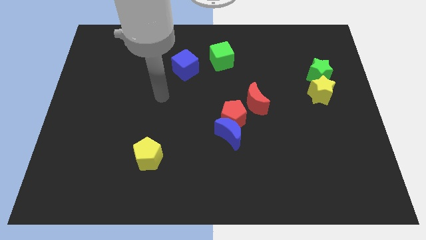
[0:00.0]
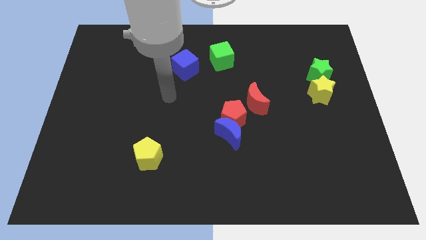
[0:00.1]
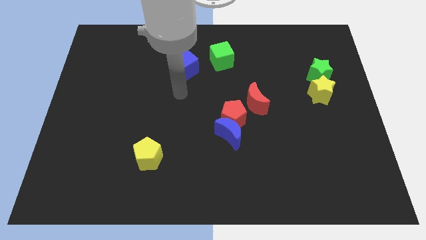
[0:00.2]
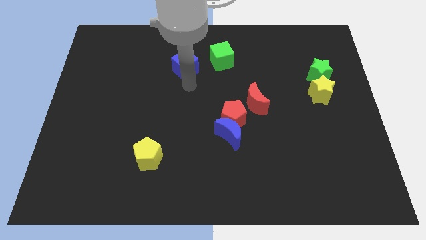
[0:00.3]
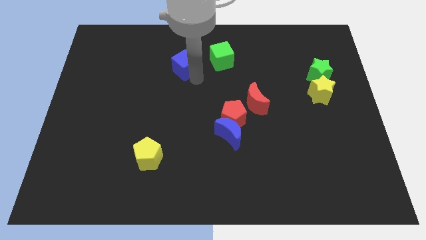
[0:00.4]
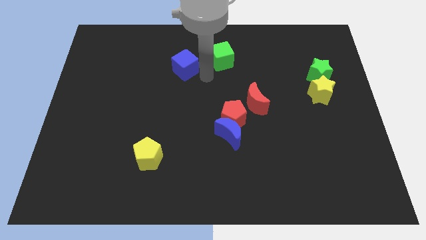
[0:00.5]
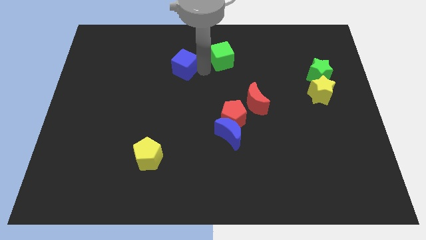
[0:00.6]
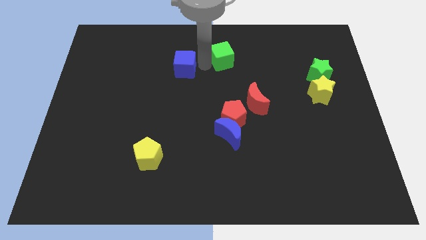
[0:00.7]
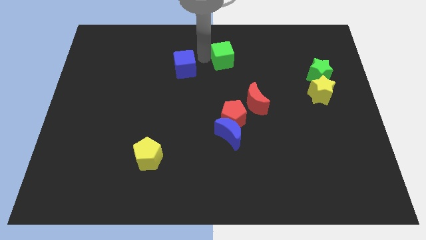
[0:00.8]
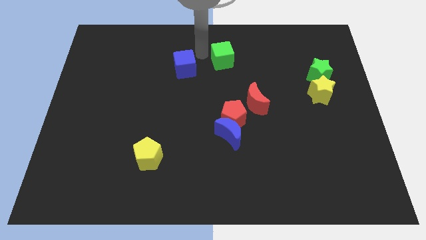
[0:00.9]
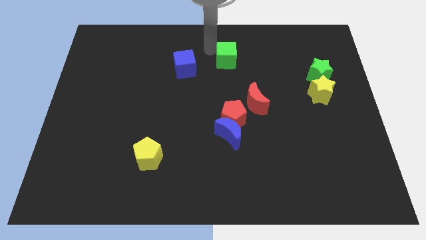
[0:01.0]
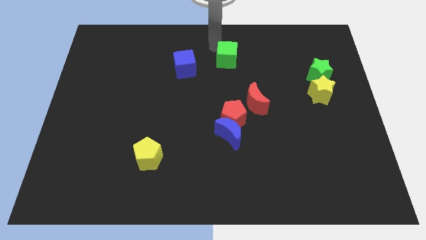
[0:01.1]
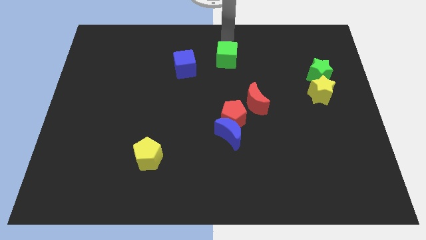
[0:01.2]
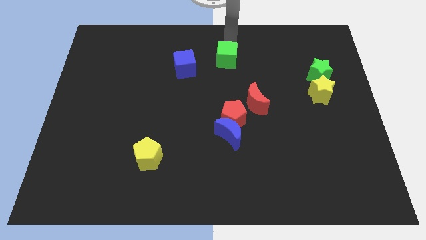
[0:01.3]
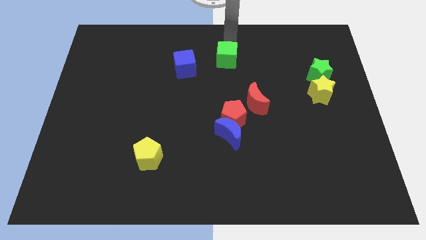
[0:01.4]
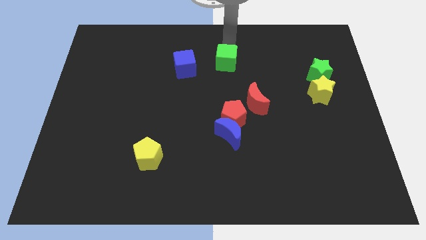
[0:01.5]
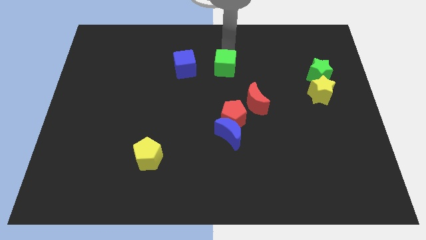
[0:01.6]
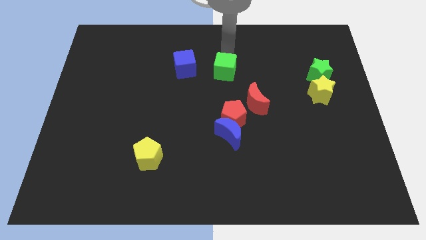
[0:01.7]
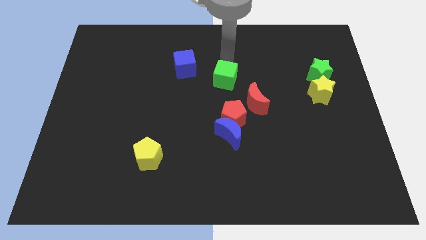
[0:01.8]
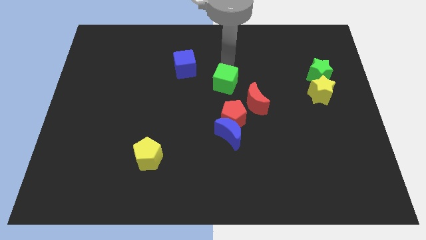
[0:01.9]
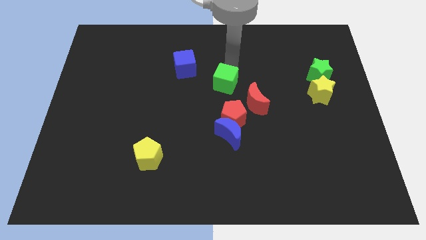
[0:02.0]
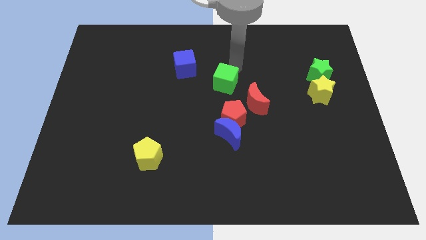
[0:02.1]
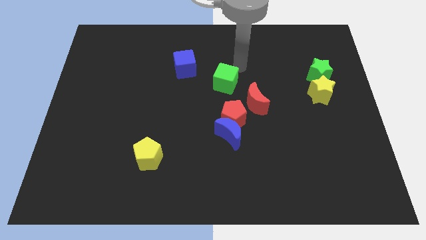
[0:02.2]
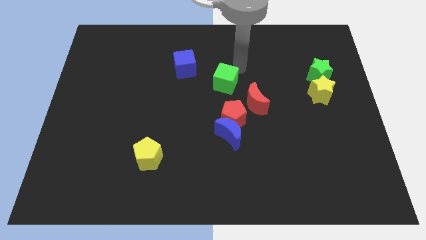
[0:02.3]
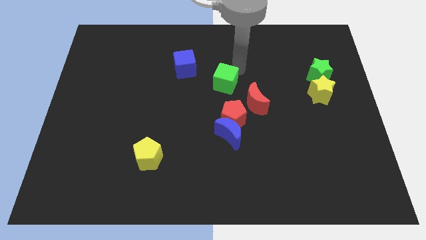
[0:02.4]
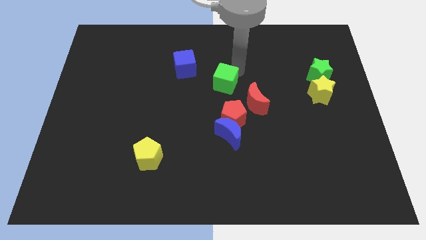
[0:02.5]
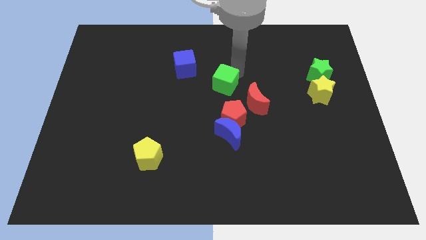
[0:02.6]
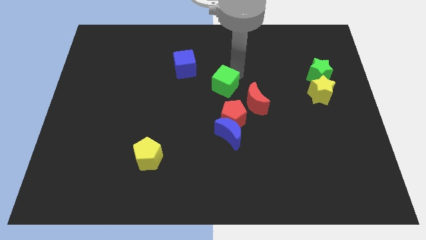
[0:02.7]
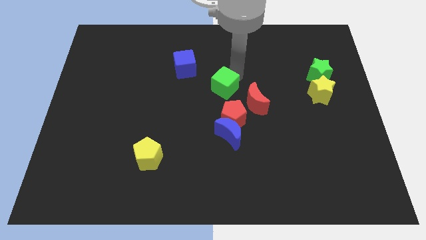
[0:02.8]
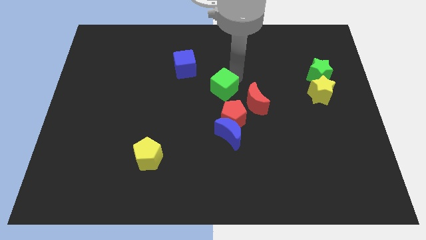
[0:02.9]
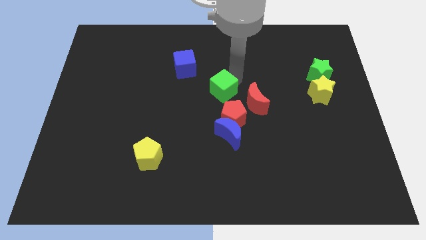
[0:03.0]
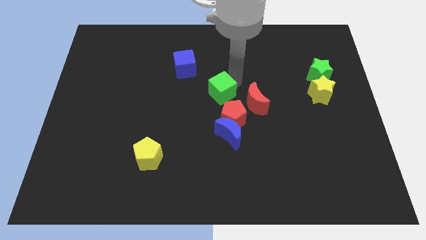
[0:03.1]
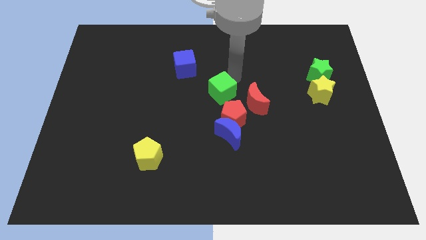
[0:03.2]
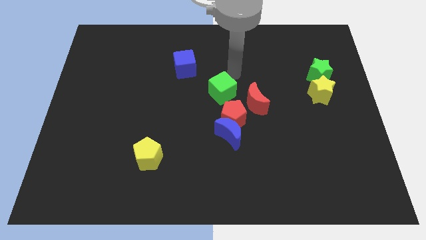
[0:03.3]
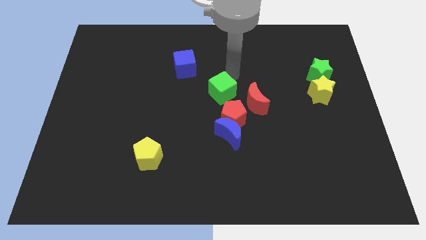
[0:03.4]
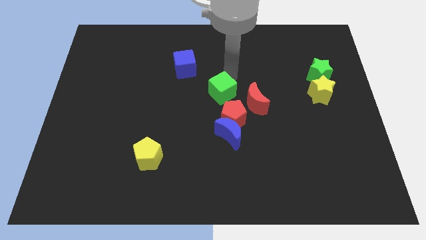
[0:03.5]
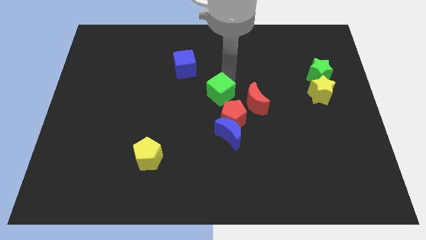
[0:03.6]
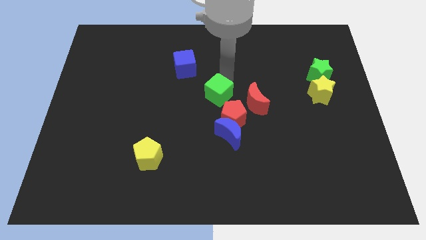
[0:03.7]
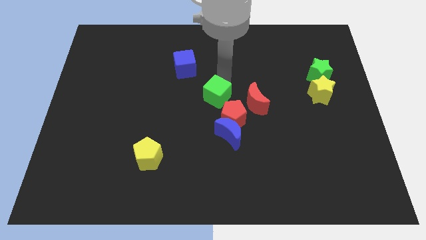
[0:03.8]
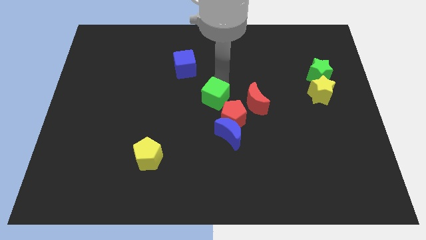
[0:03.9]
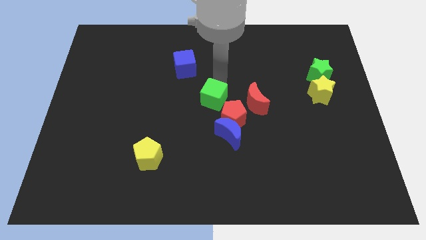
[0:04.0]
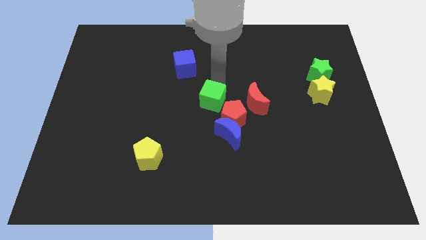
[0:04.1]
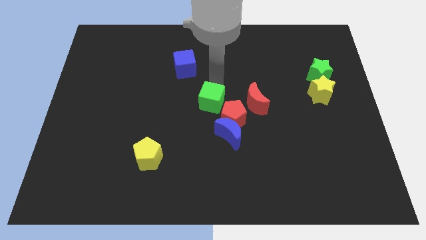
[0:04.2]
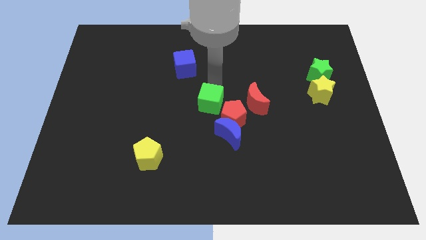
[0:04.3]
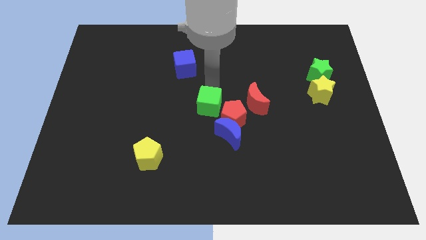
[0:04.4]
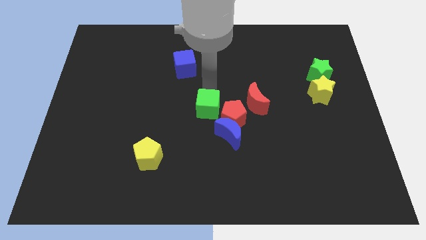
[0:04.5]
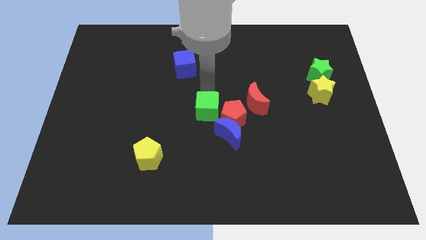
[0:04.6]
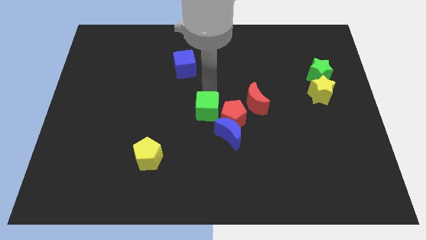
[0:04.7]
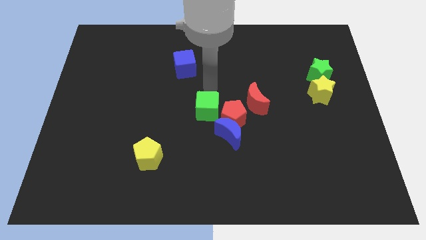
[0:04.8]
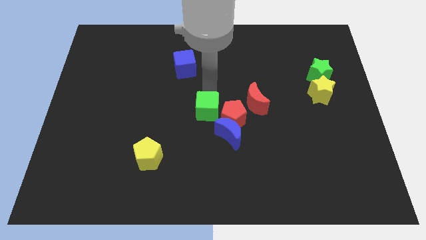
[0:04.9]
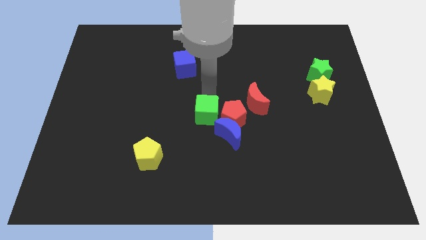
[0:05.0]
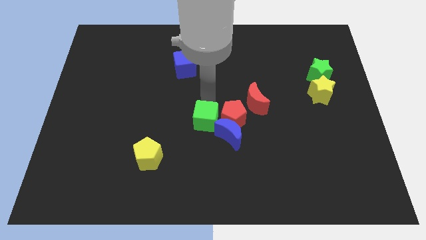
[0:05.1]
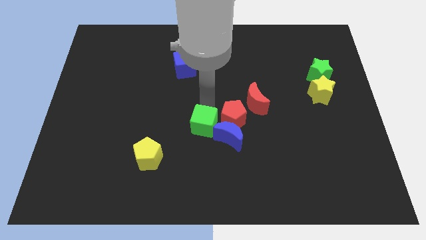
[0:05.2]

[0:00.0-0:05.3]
move the green cube down

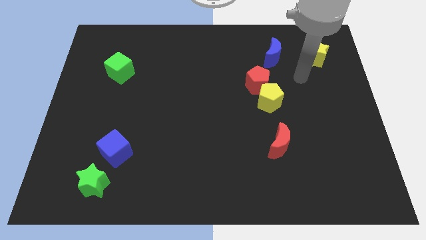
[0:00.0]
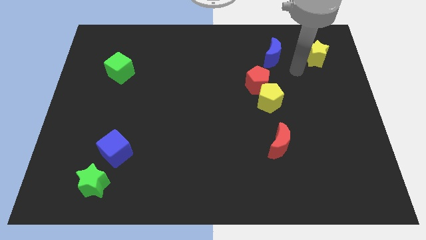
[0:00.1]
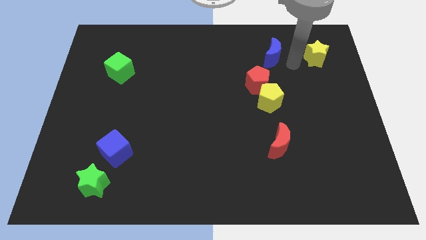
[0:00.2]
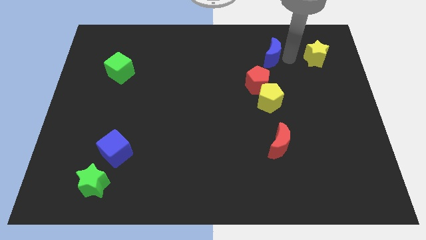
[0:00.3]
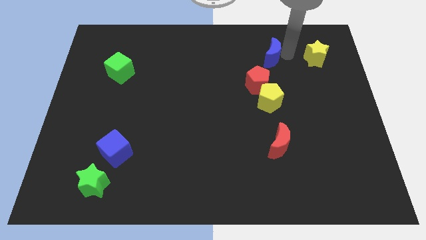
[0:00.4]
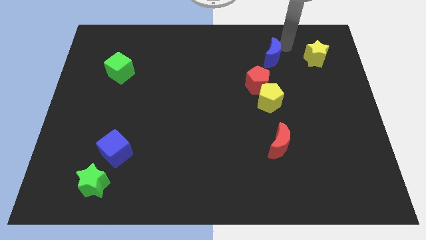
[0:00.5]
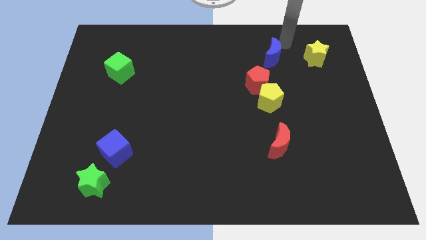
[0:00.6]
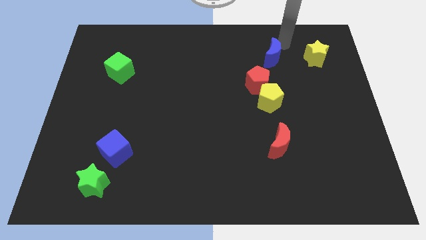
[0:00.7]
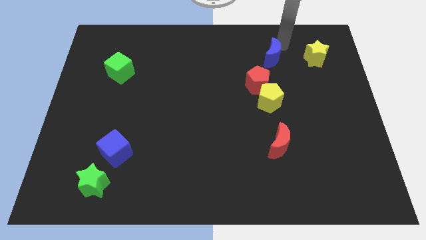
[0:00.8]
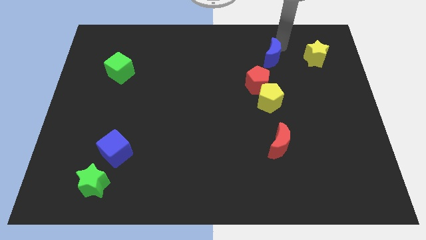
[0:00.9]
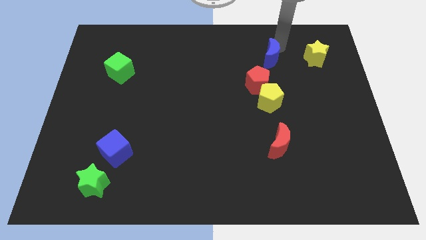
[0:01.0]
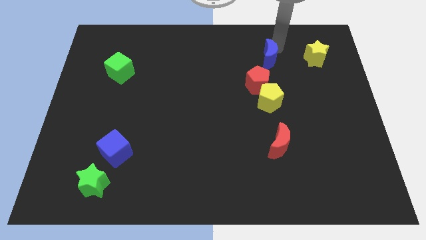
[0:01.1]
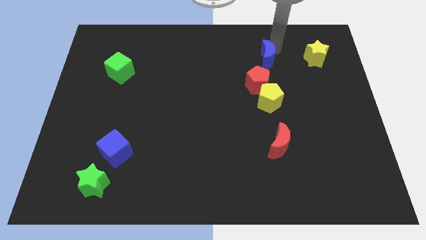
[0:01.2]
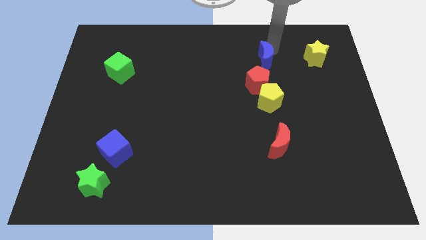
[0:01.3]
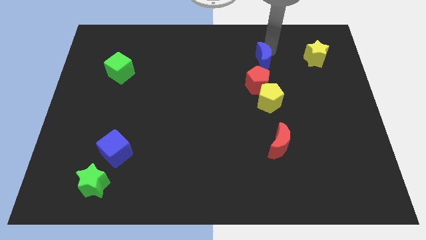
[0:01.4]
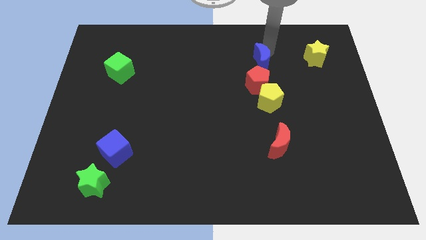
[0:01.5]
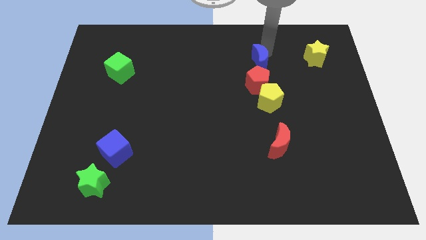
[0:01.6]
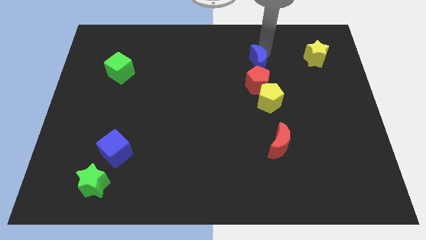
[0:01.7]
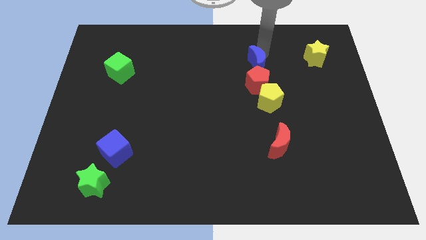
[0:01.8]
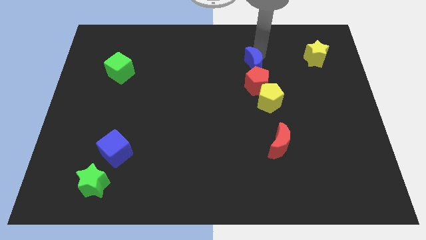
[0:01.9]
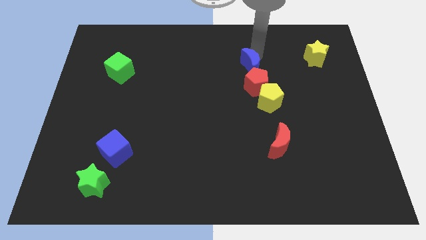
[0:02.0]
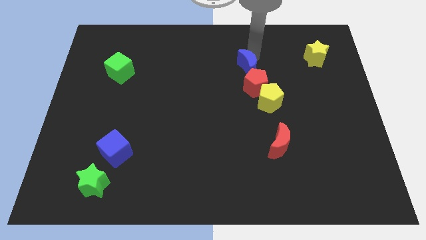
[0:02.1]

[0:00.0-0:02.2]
push the blue moon down and left a little

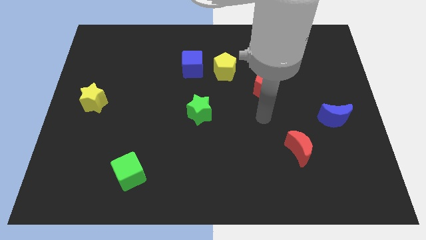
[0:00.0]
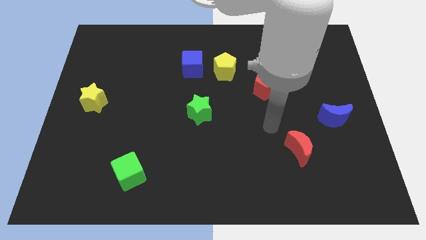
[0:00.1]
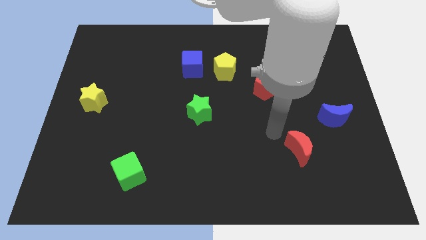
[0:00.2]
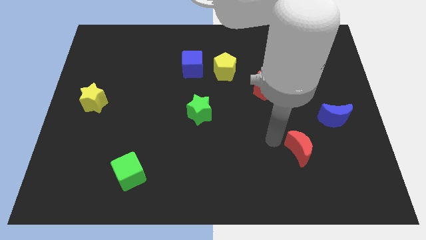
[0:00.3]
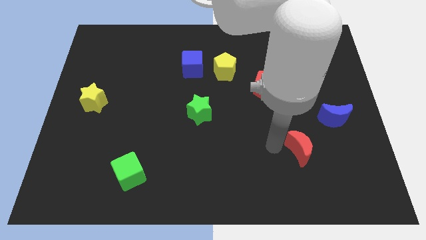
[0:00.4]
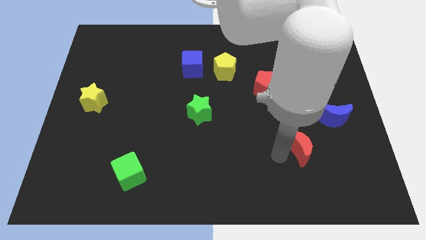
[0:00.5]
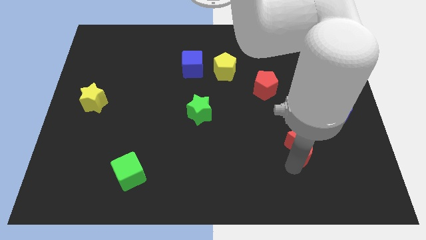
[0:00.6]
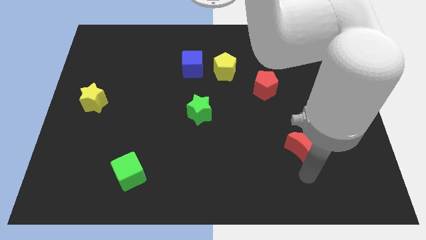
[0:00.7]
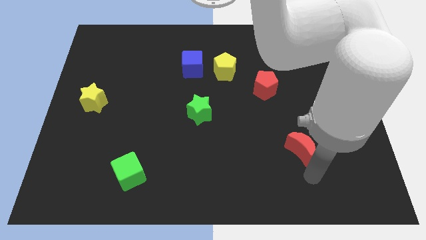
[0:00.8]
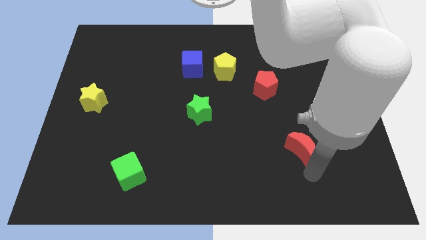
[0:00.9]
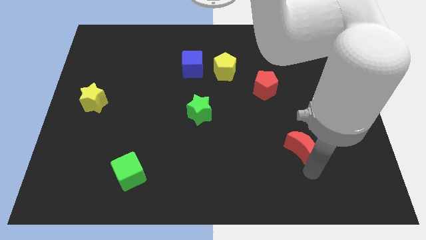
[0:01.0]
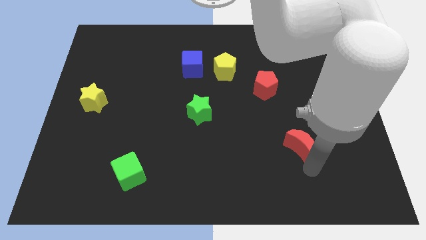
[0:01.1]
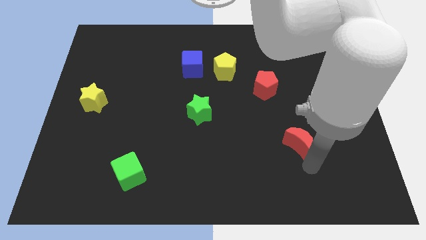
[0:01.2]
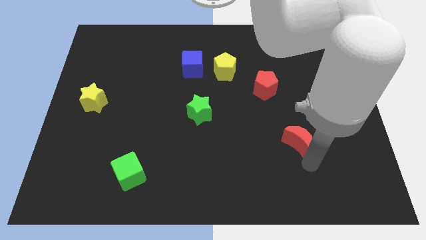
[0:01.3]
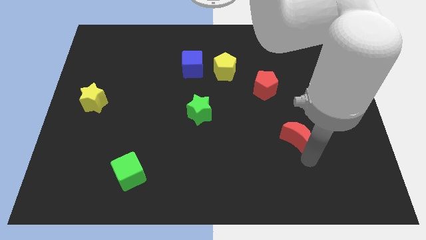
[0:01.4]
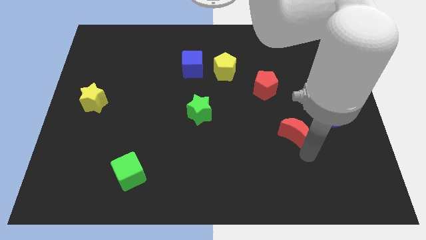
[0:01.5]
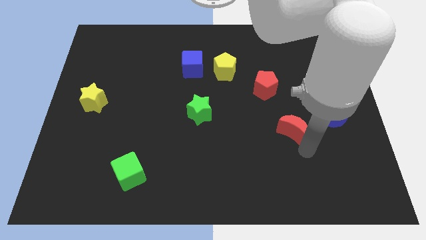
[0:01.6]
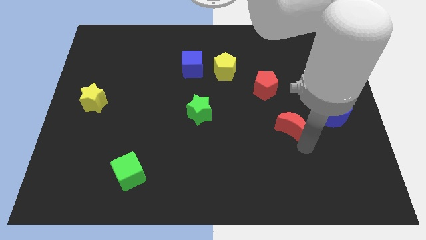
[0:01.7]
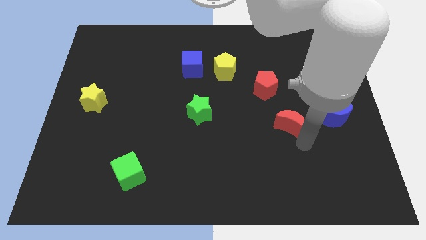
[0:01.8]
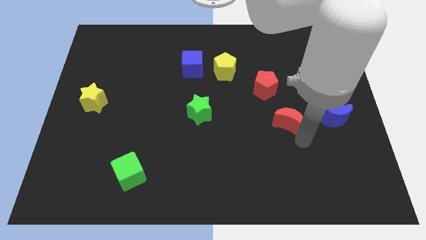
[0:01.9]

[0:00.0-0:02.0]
slide the red moon a little up
